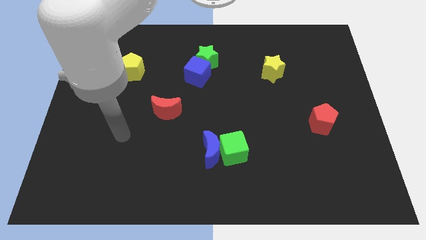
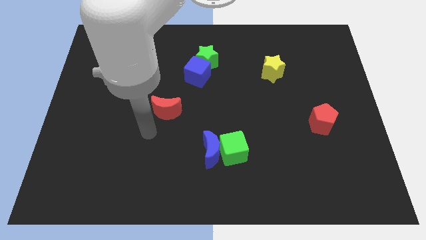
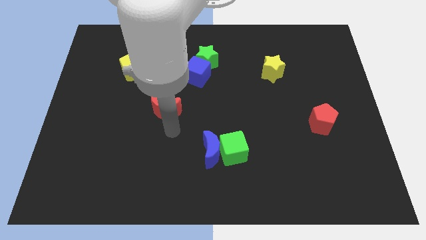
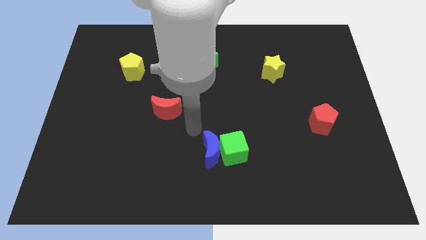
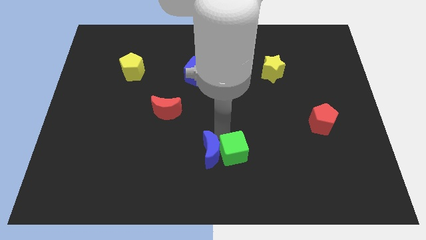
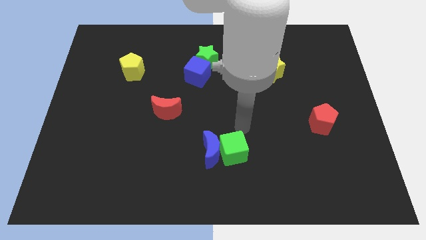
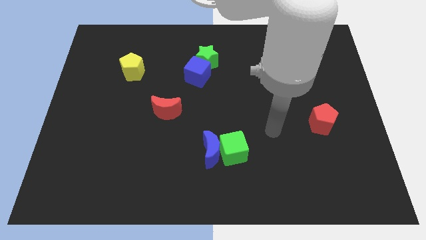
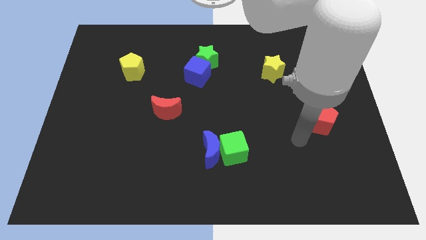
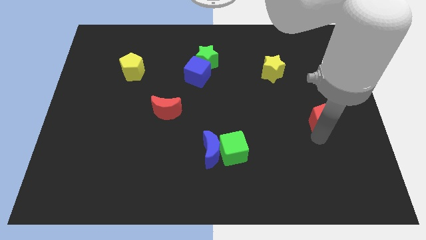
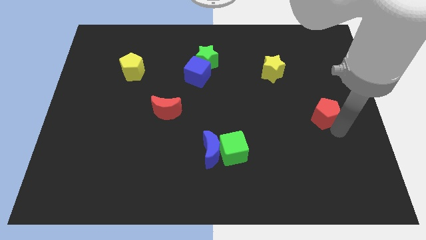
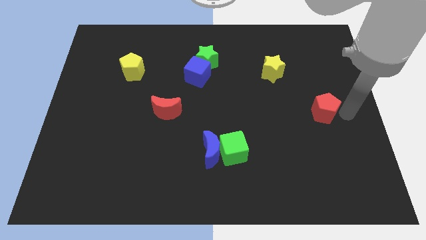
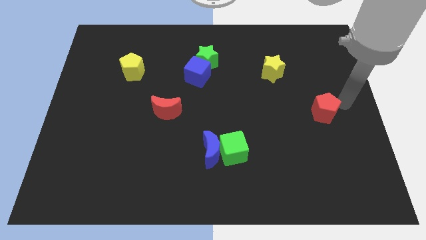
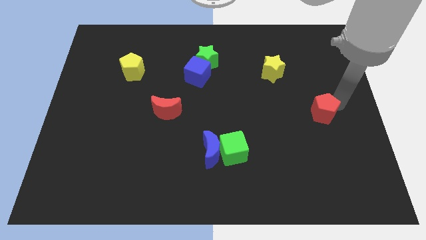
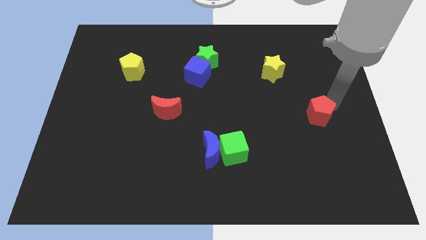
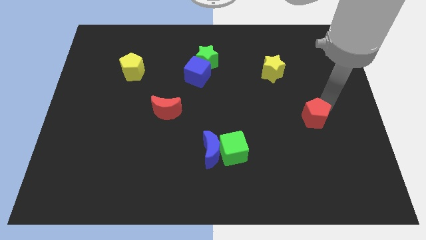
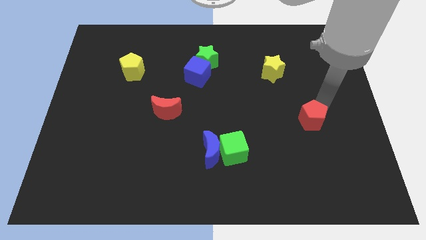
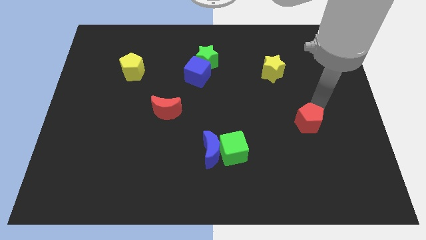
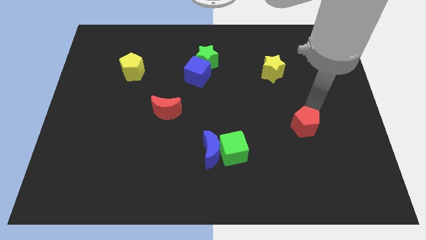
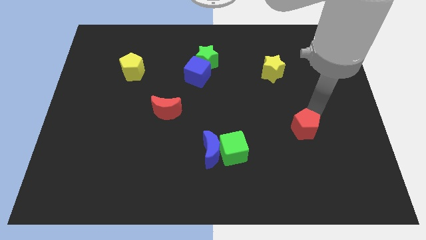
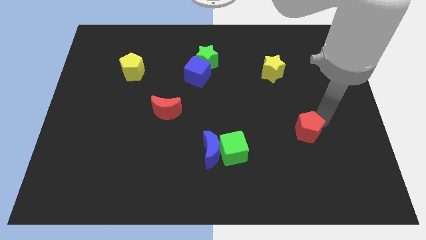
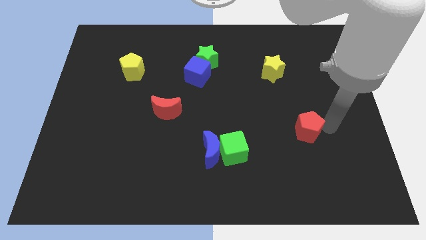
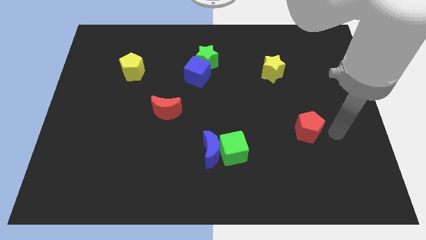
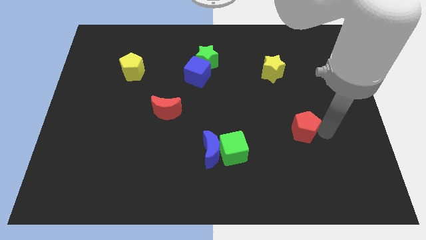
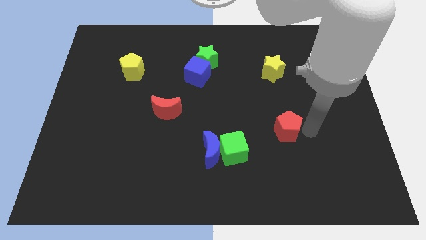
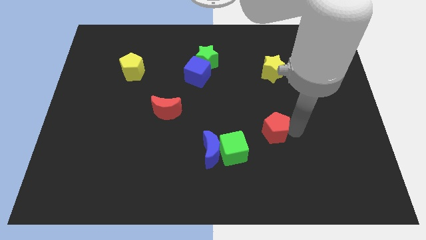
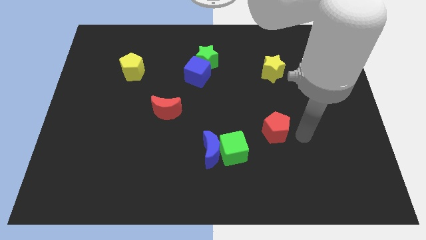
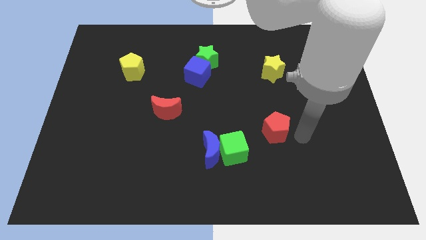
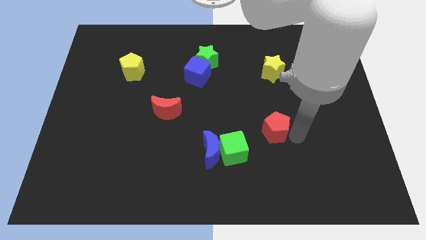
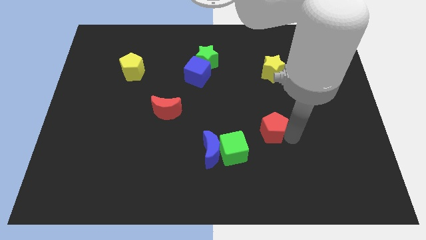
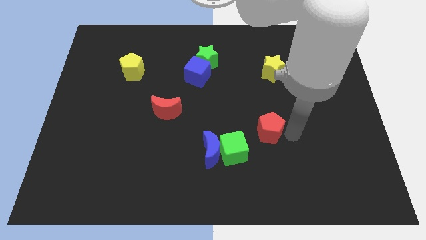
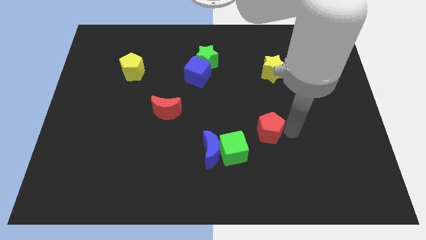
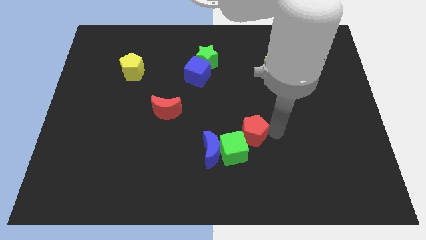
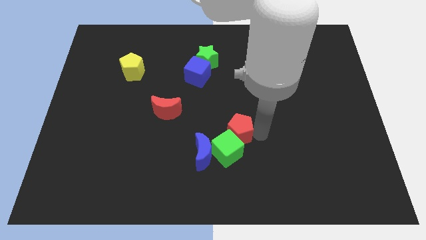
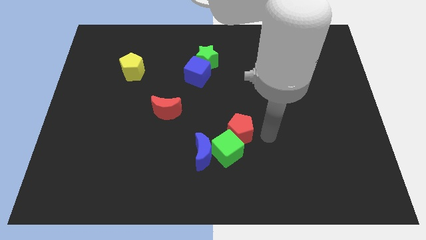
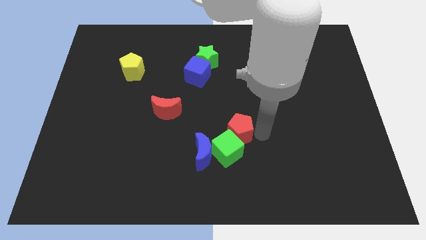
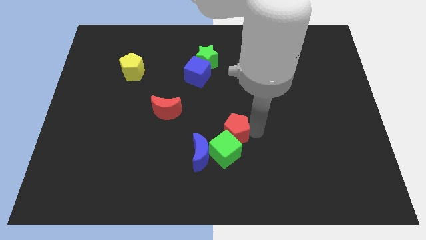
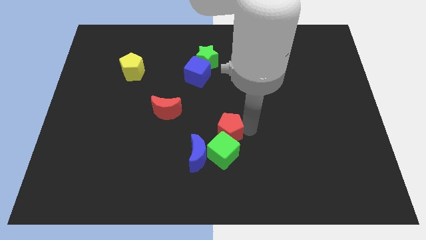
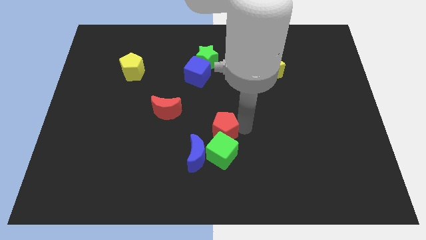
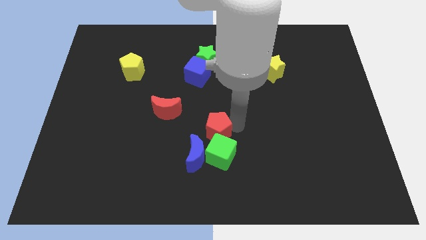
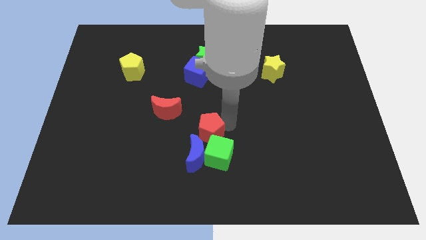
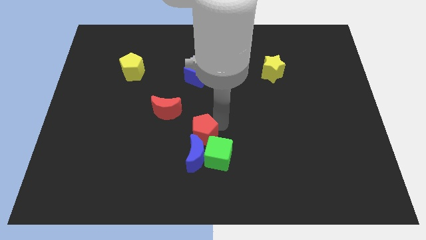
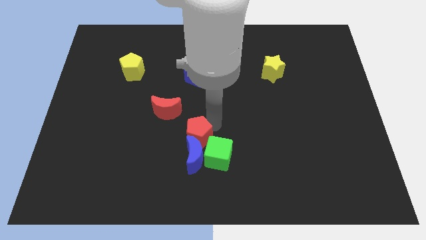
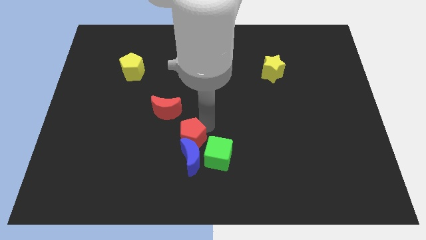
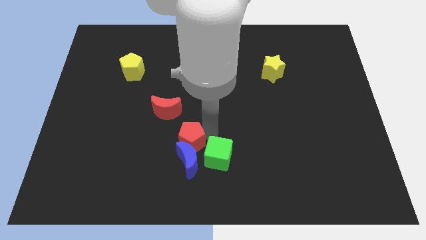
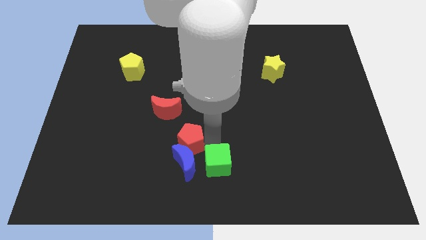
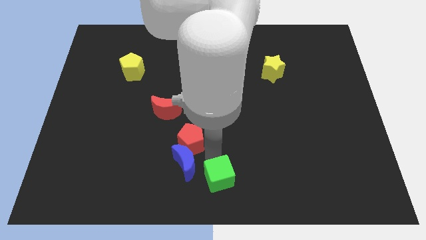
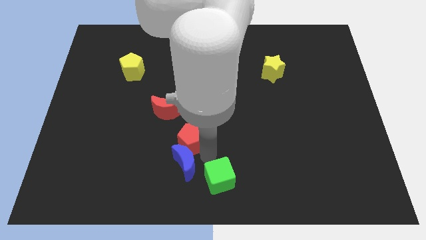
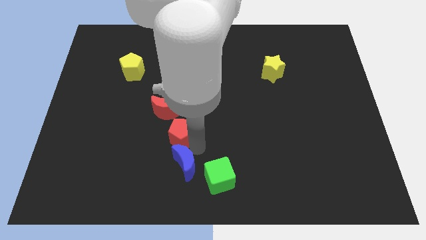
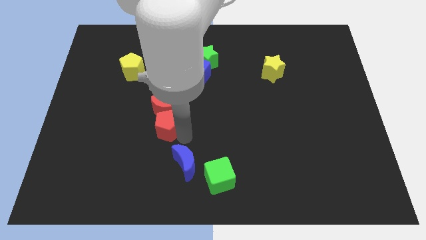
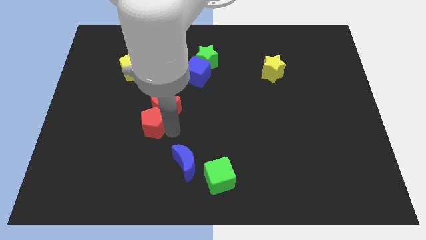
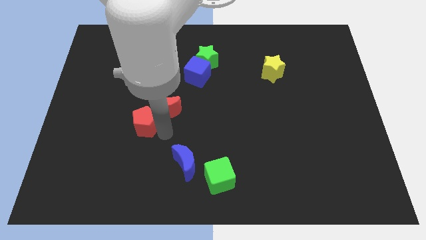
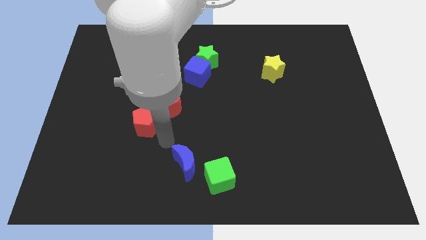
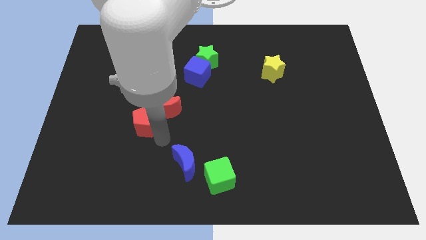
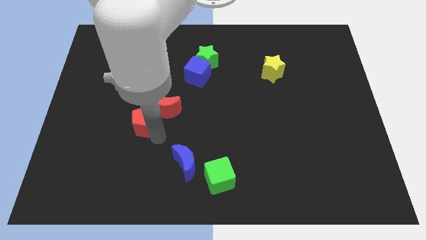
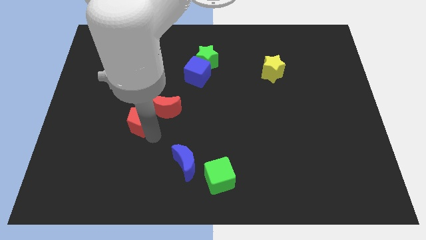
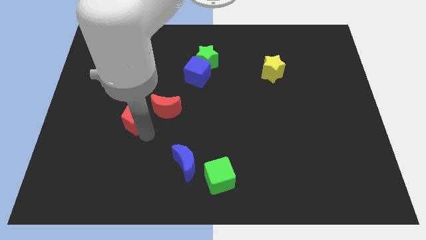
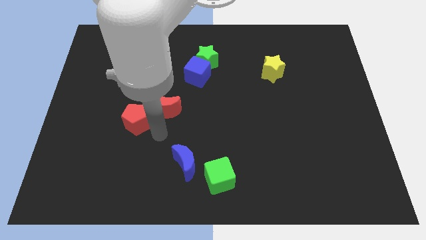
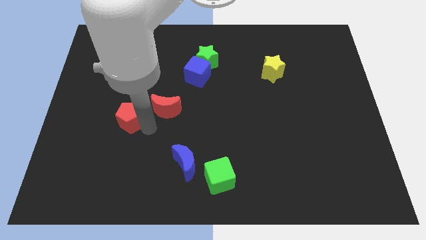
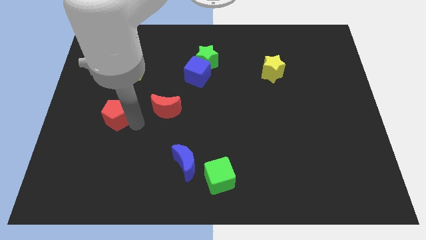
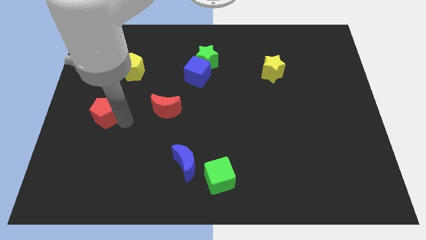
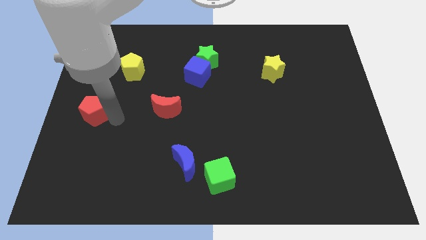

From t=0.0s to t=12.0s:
slide the red pentagon to the center left
